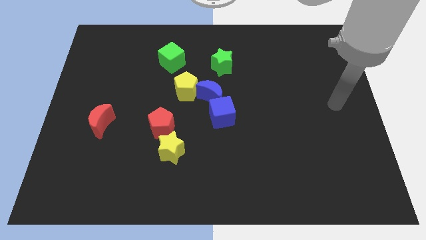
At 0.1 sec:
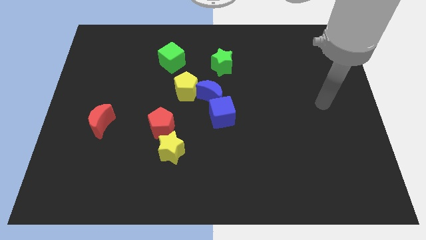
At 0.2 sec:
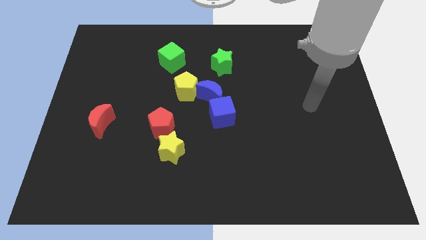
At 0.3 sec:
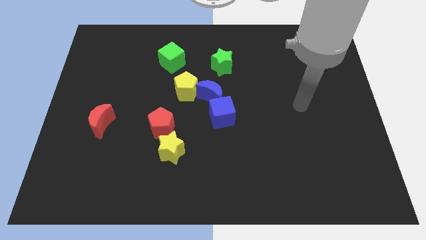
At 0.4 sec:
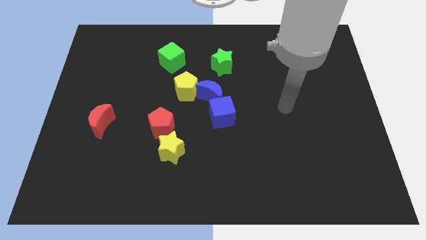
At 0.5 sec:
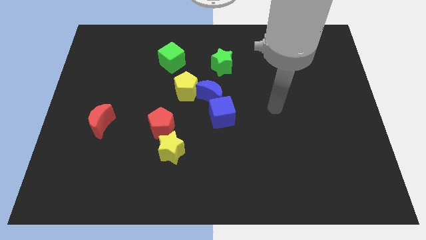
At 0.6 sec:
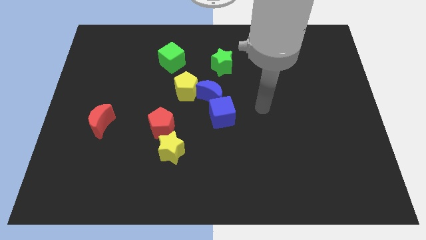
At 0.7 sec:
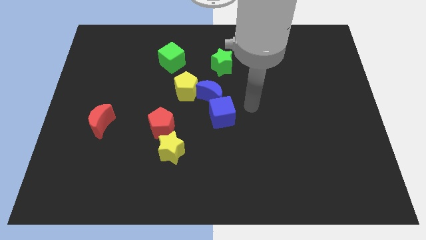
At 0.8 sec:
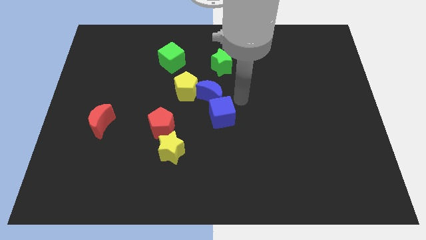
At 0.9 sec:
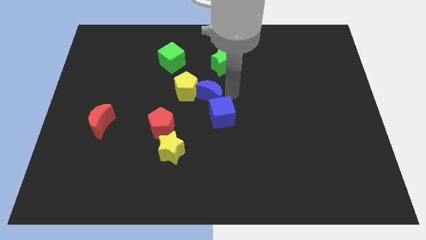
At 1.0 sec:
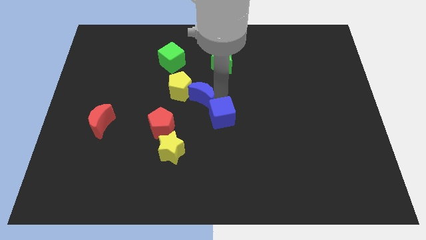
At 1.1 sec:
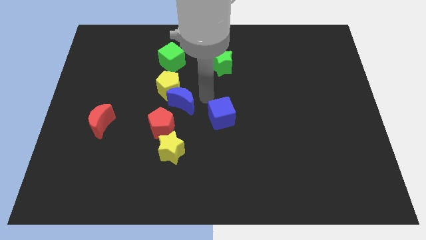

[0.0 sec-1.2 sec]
separate the blue cube from the blue moon

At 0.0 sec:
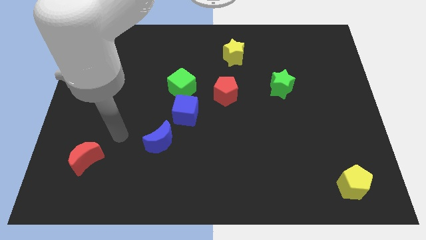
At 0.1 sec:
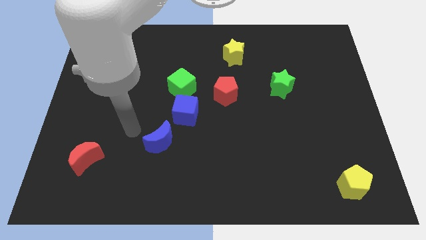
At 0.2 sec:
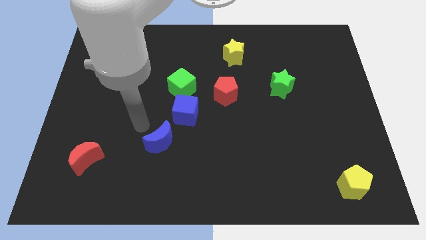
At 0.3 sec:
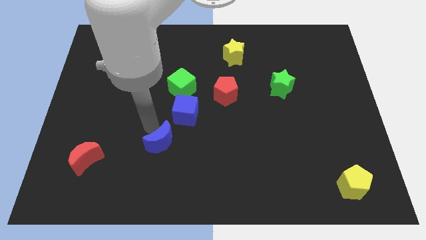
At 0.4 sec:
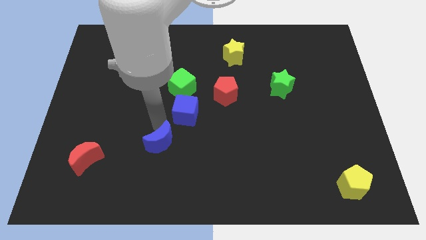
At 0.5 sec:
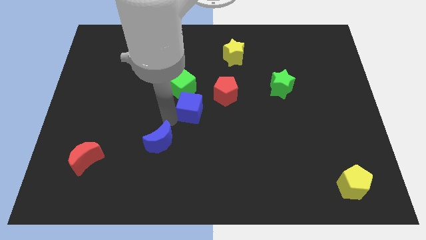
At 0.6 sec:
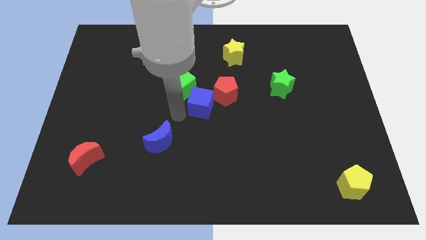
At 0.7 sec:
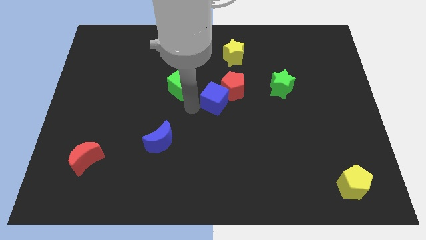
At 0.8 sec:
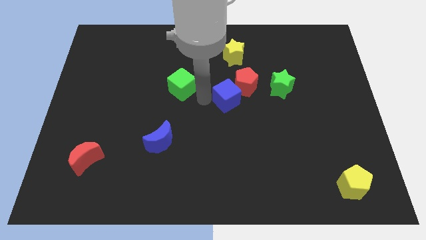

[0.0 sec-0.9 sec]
move the green cube away from the blue cube

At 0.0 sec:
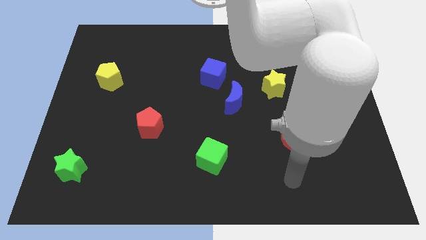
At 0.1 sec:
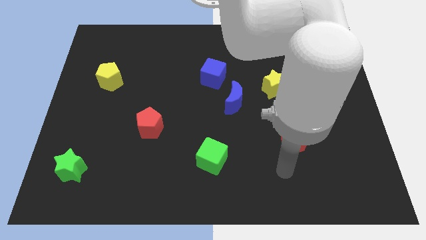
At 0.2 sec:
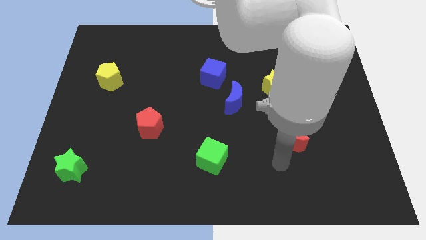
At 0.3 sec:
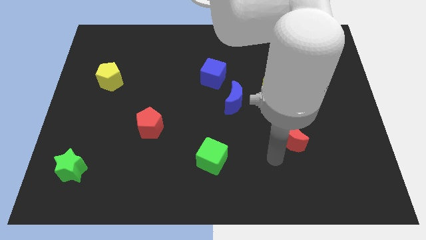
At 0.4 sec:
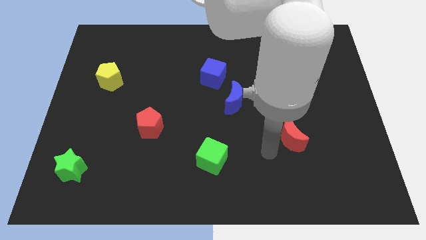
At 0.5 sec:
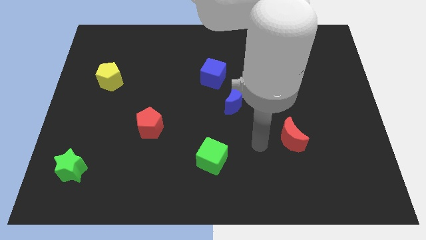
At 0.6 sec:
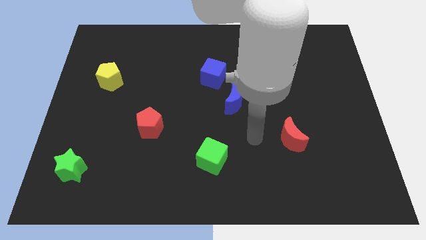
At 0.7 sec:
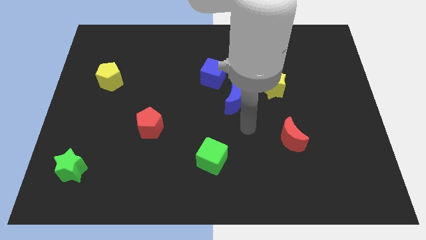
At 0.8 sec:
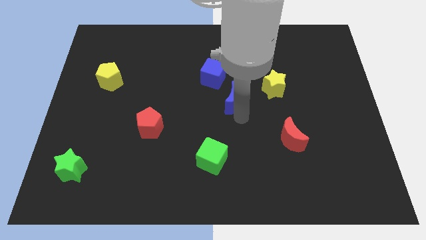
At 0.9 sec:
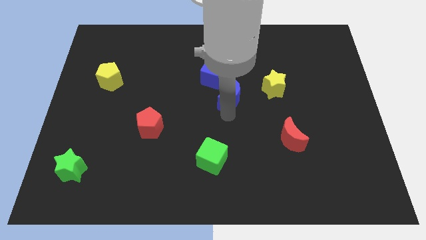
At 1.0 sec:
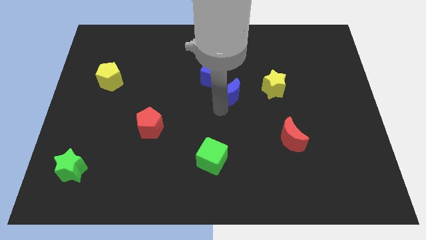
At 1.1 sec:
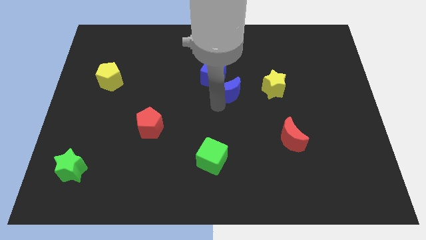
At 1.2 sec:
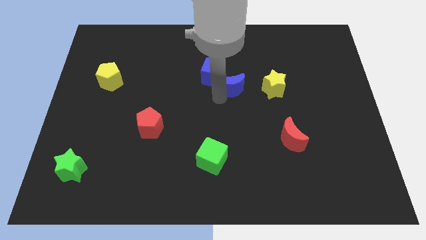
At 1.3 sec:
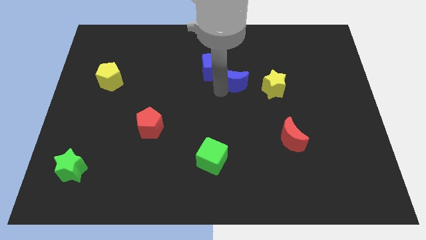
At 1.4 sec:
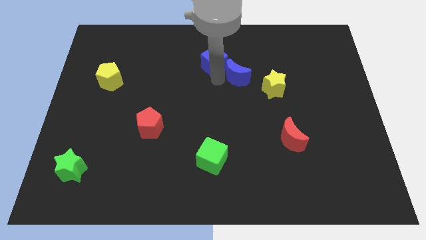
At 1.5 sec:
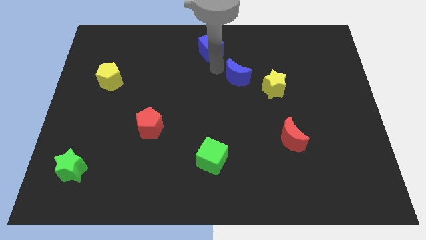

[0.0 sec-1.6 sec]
pull the blue moon apart from the blue cube

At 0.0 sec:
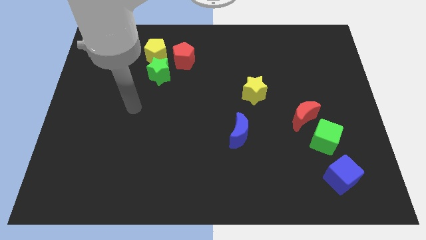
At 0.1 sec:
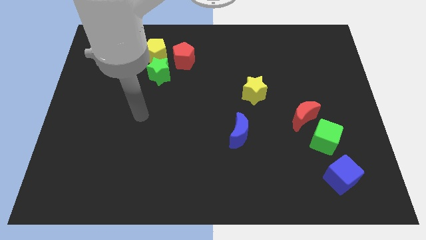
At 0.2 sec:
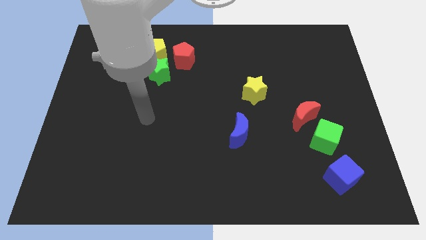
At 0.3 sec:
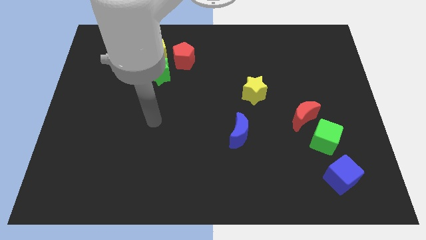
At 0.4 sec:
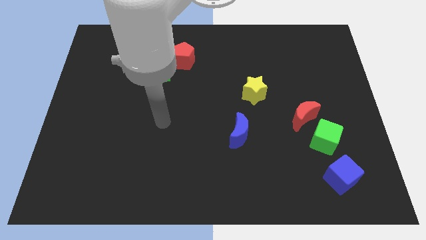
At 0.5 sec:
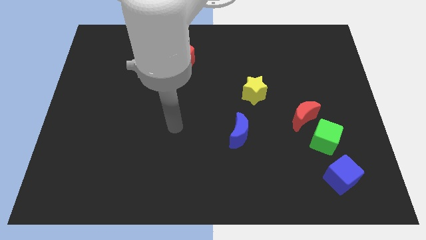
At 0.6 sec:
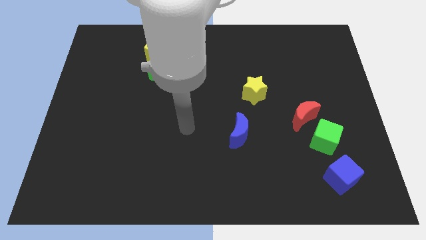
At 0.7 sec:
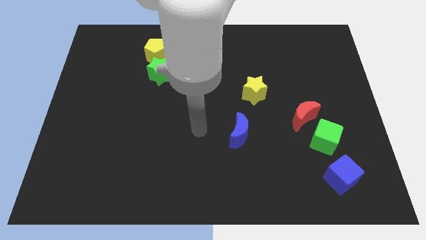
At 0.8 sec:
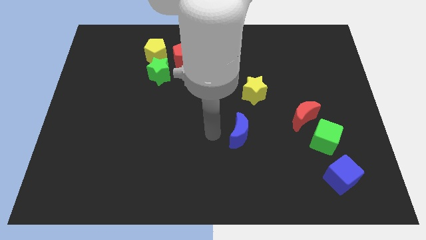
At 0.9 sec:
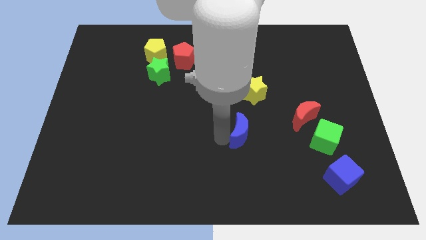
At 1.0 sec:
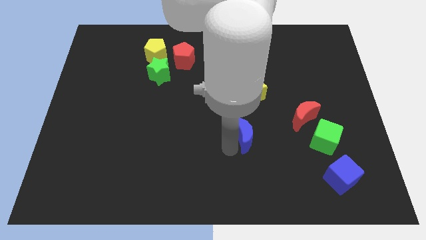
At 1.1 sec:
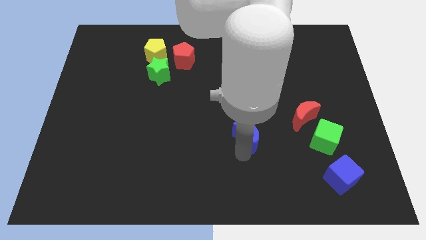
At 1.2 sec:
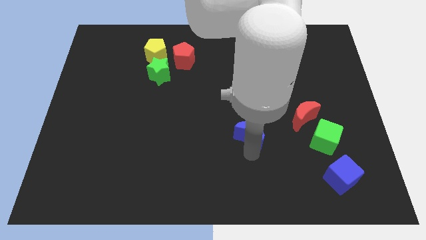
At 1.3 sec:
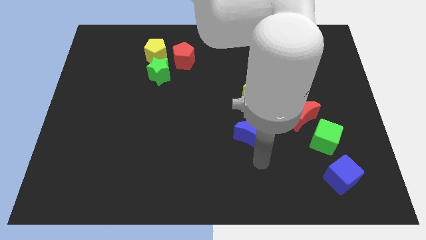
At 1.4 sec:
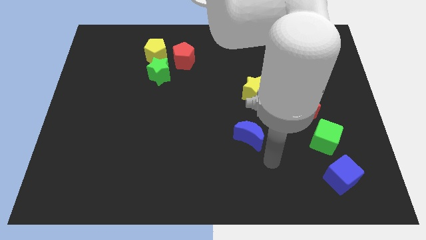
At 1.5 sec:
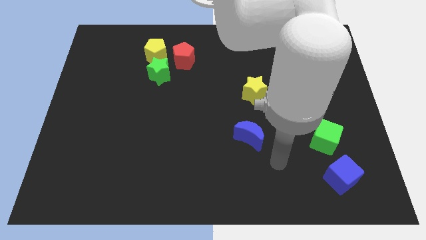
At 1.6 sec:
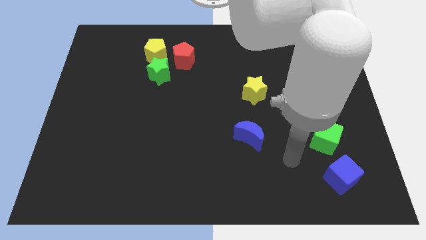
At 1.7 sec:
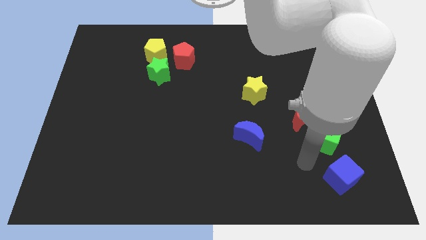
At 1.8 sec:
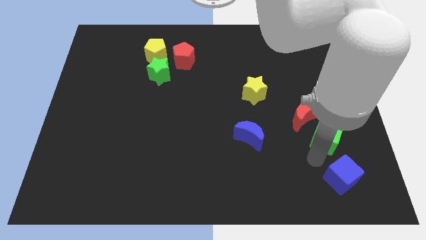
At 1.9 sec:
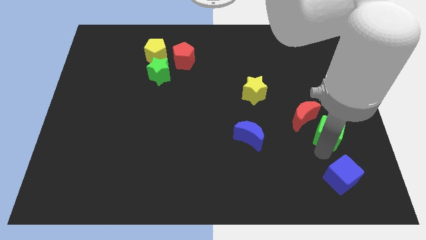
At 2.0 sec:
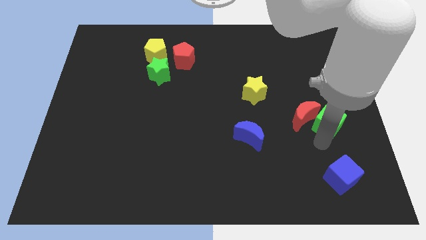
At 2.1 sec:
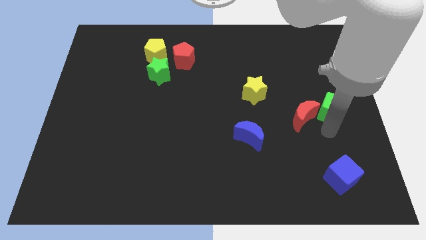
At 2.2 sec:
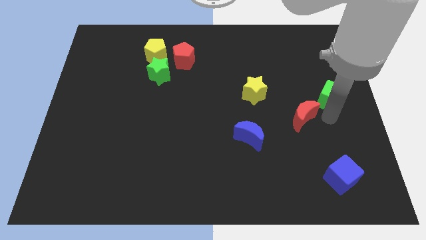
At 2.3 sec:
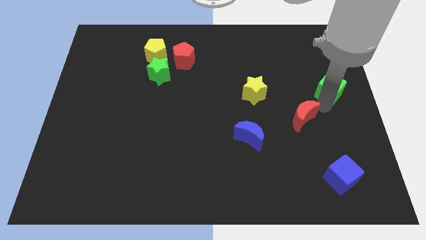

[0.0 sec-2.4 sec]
move the red moon away from the green cube

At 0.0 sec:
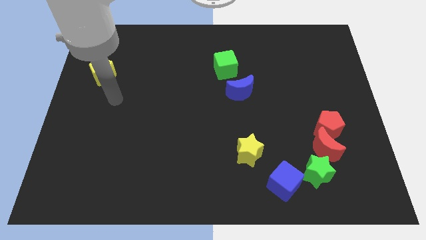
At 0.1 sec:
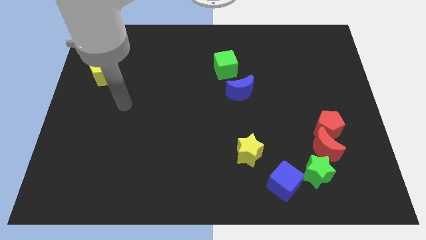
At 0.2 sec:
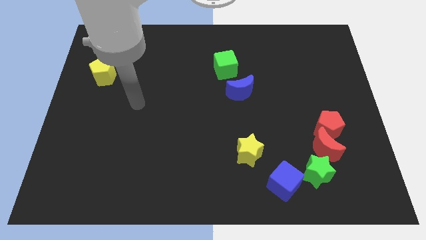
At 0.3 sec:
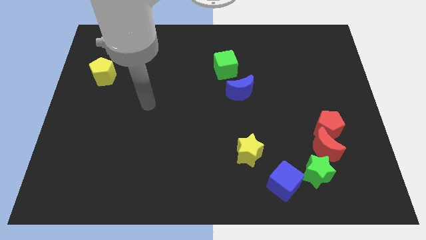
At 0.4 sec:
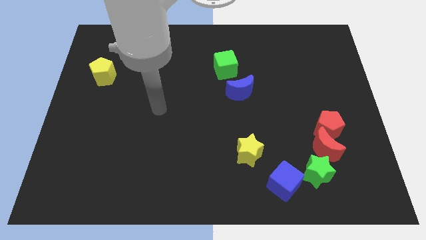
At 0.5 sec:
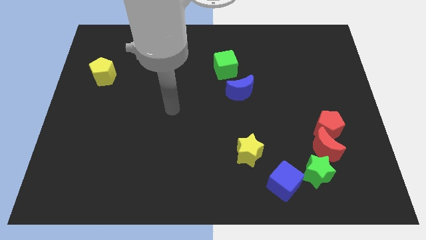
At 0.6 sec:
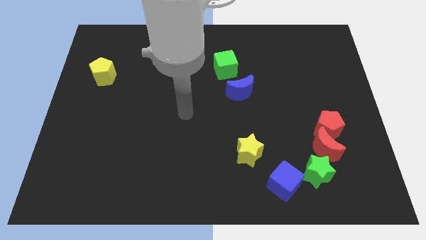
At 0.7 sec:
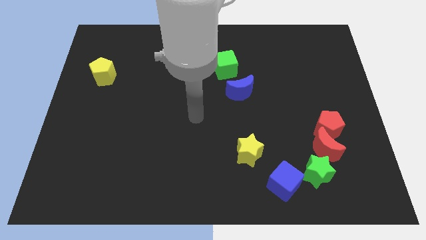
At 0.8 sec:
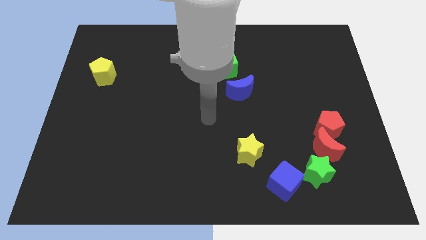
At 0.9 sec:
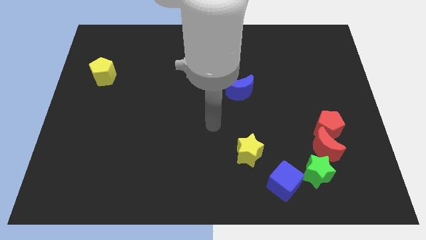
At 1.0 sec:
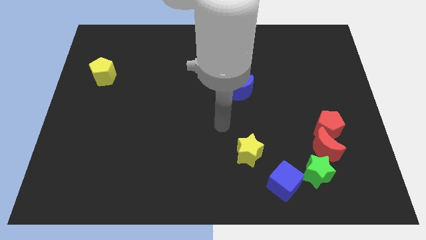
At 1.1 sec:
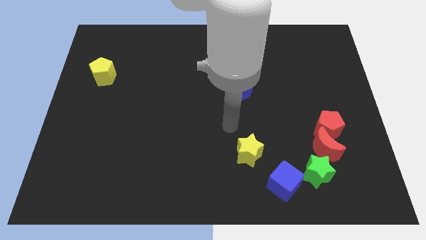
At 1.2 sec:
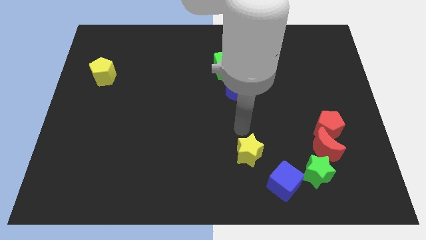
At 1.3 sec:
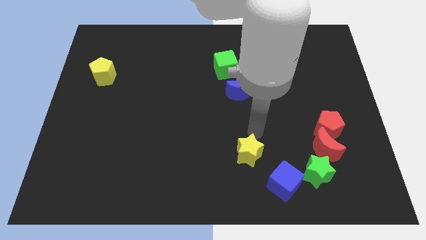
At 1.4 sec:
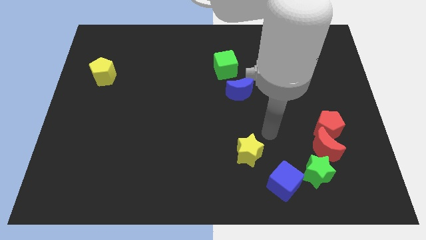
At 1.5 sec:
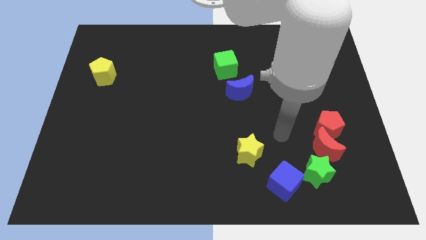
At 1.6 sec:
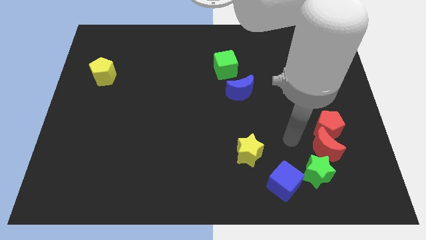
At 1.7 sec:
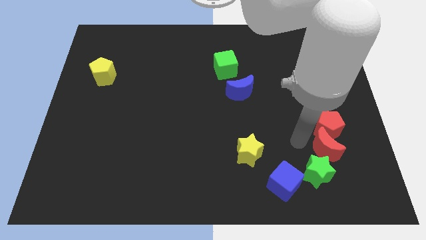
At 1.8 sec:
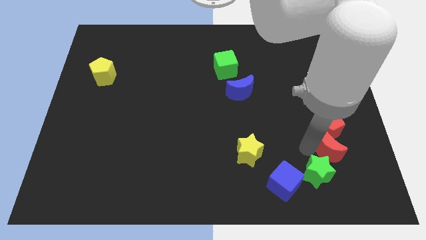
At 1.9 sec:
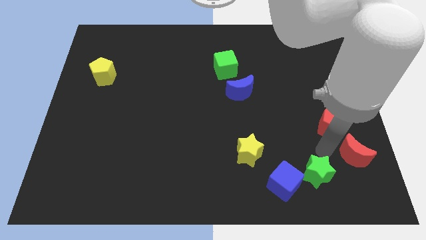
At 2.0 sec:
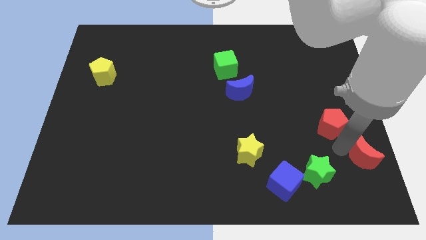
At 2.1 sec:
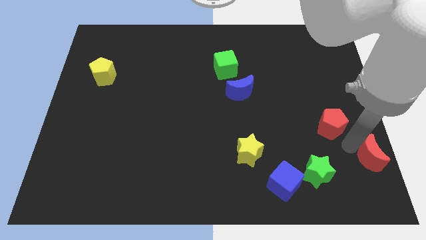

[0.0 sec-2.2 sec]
pull the red pentagon apart from the red moon

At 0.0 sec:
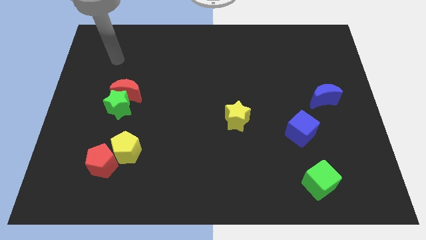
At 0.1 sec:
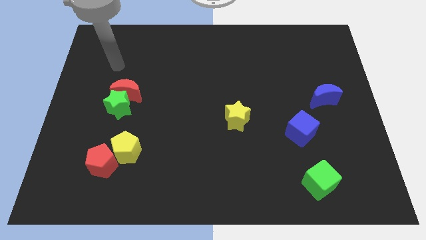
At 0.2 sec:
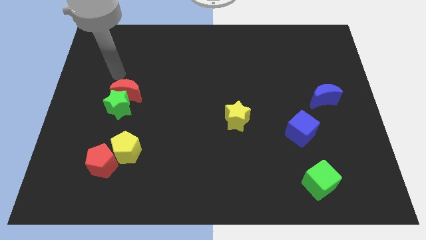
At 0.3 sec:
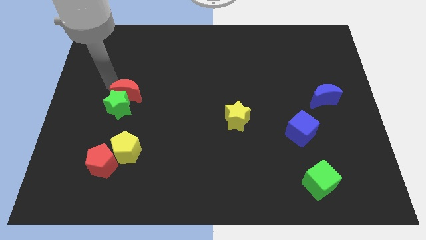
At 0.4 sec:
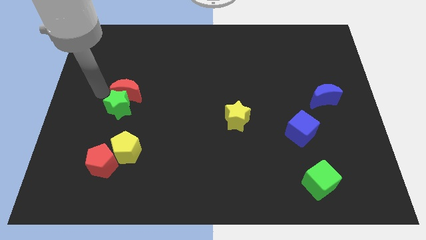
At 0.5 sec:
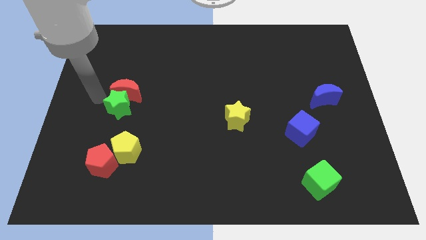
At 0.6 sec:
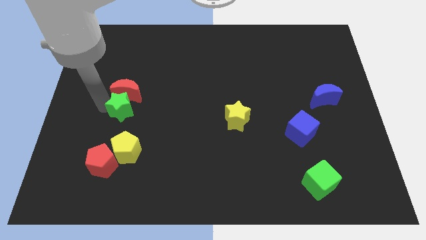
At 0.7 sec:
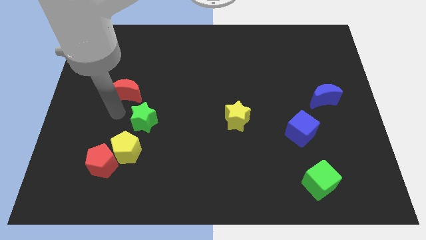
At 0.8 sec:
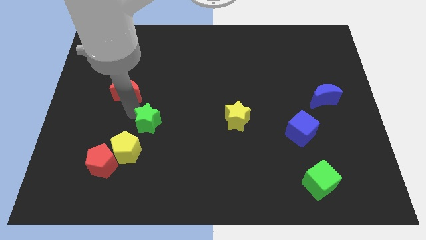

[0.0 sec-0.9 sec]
separate the red moon from the green star

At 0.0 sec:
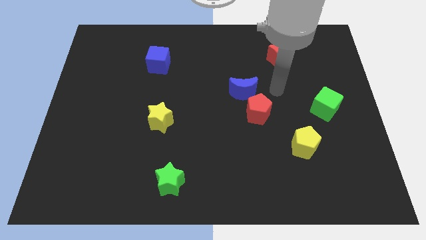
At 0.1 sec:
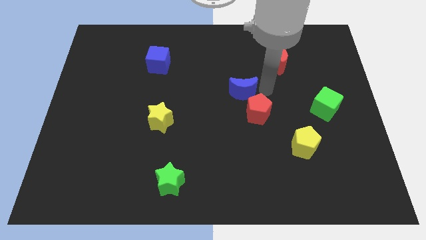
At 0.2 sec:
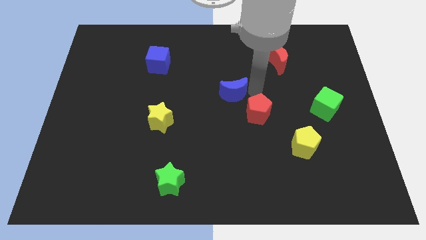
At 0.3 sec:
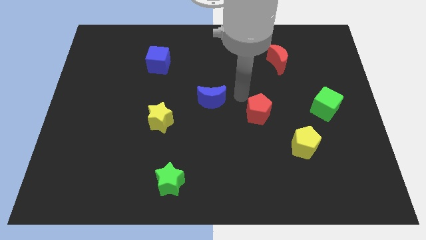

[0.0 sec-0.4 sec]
pull the red pentagon apart from the blue moon
